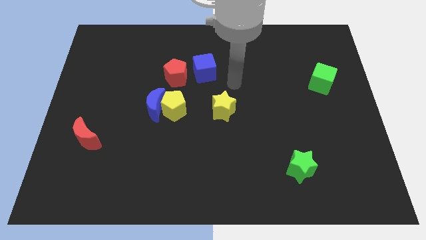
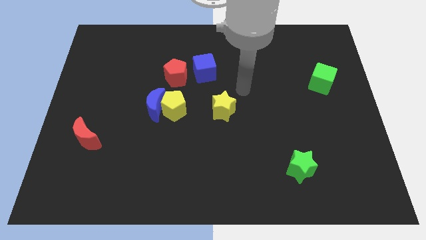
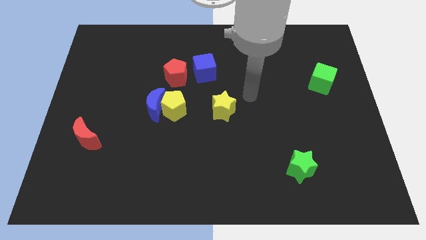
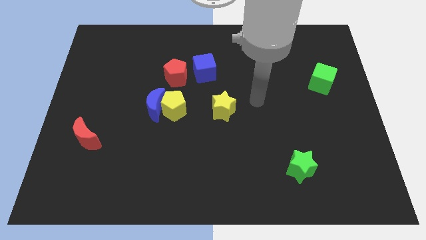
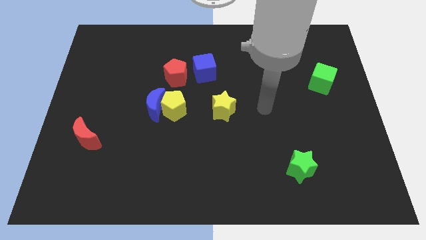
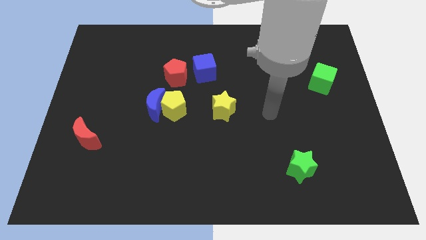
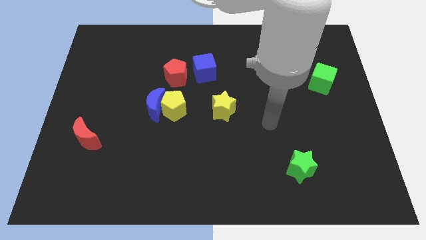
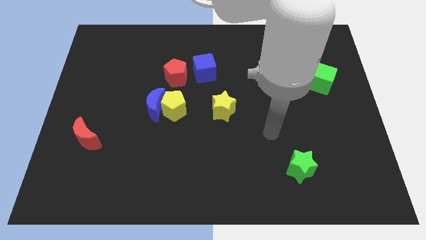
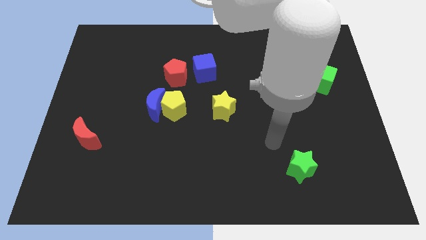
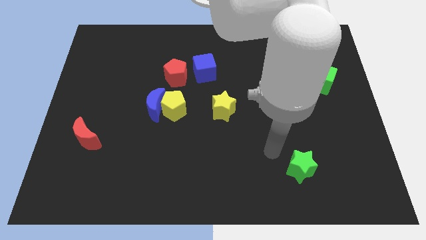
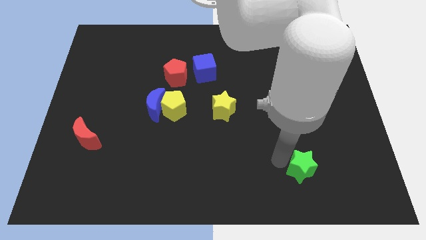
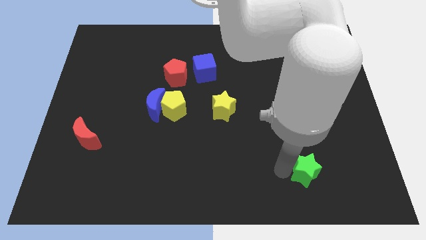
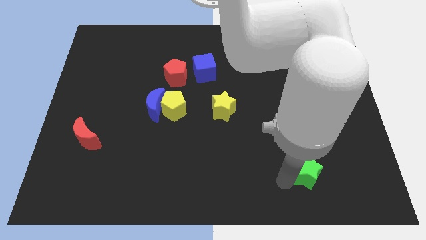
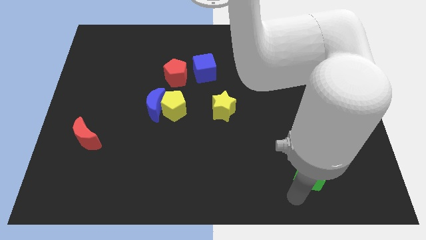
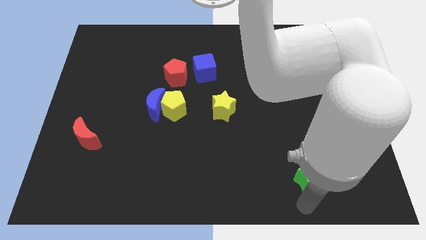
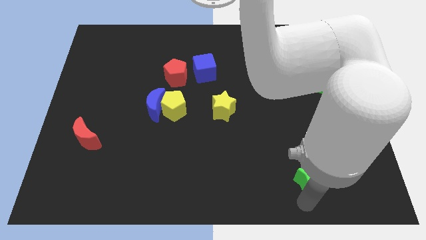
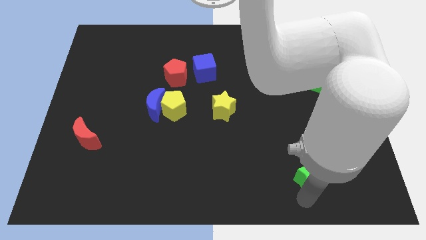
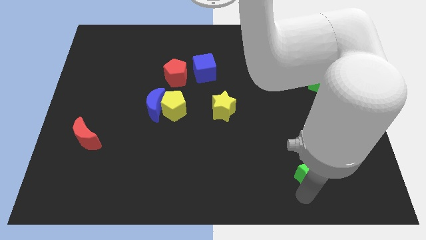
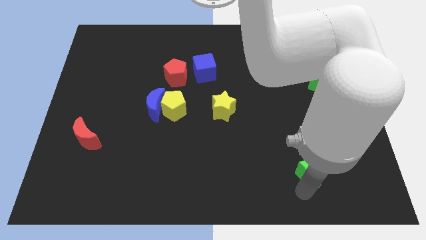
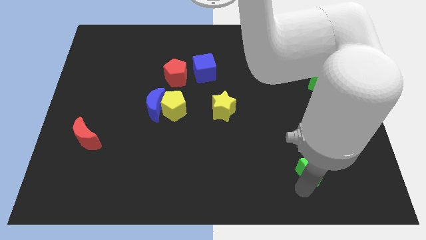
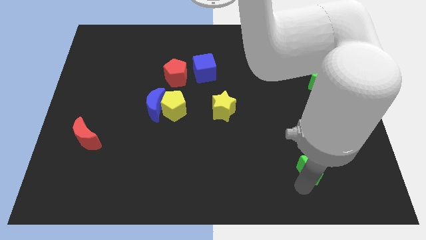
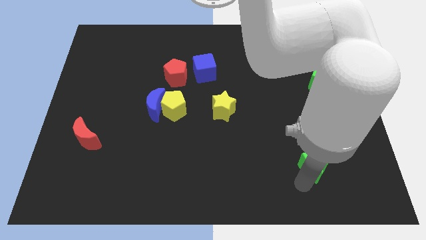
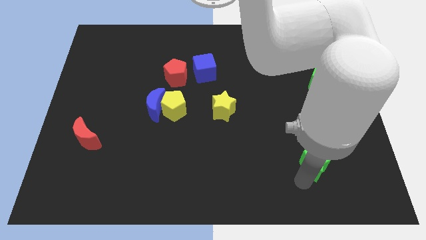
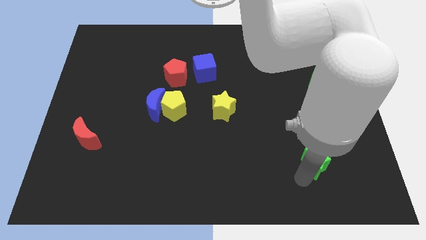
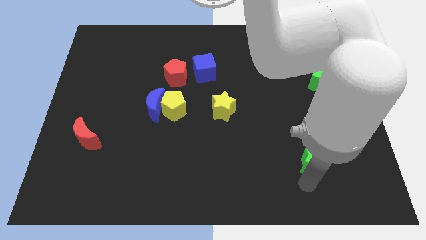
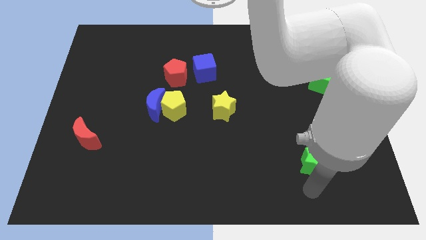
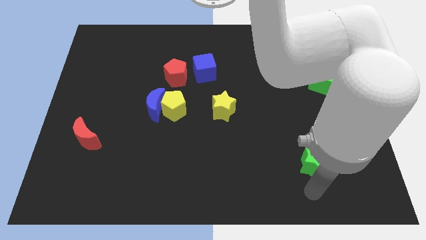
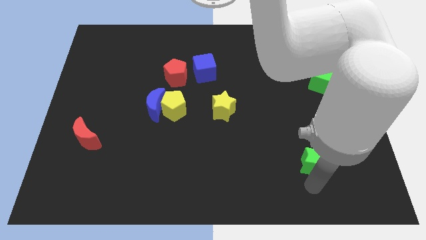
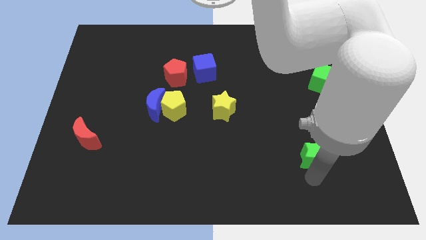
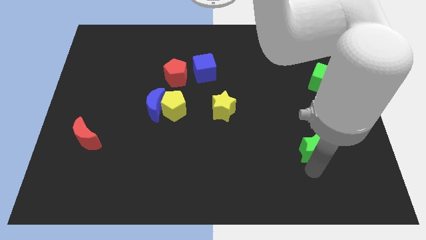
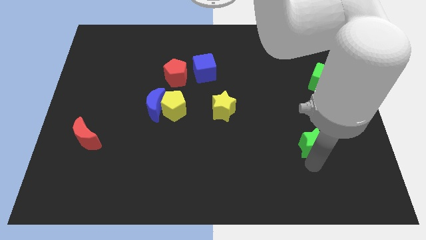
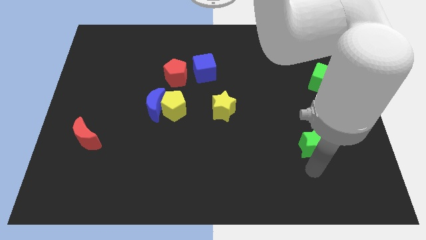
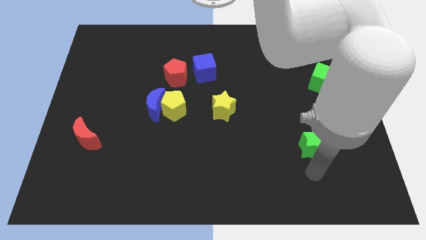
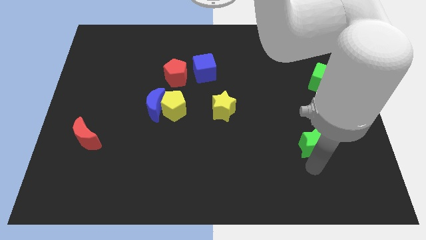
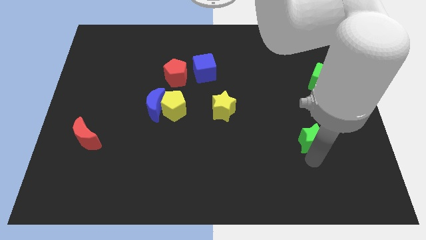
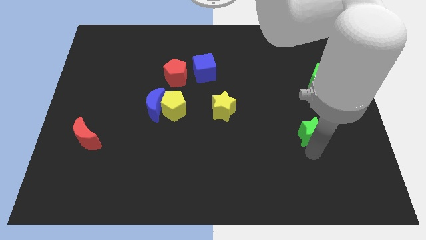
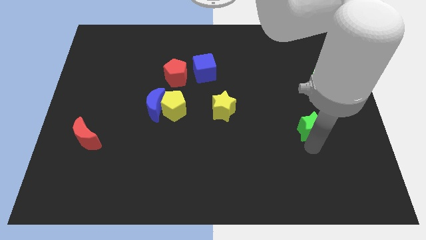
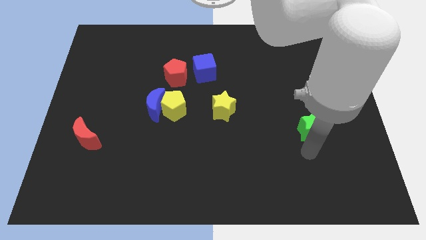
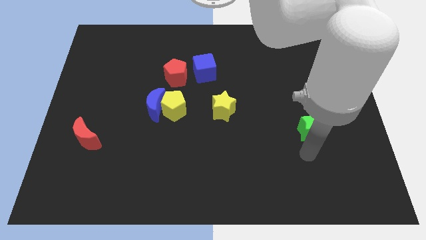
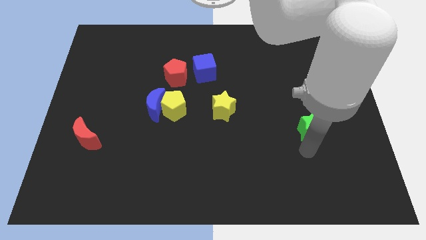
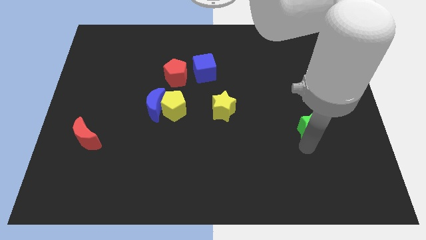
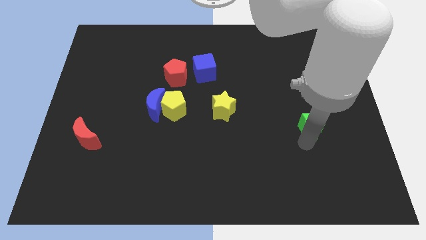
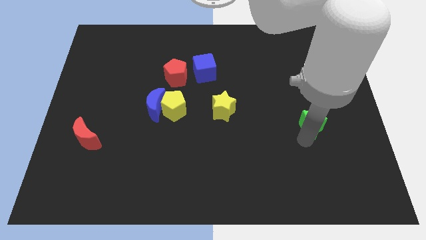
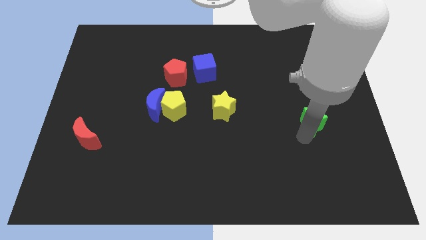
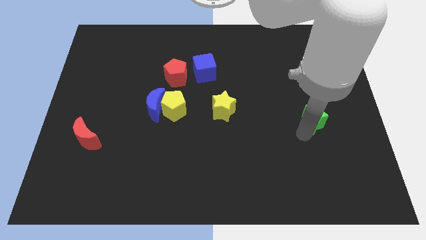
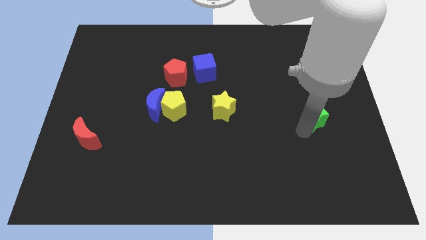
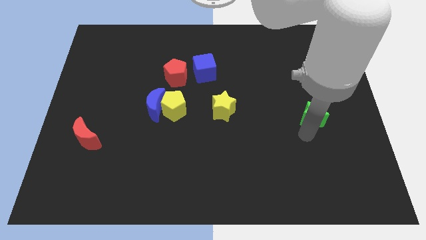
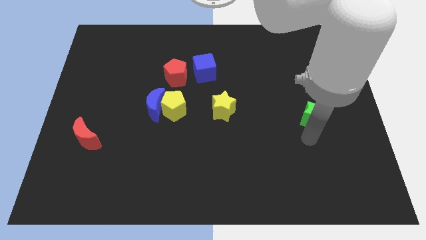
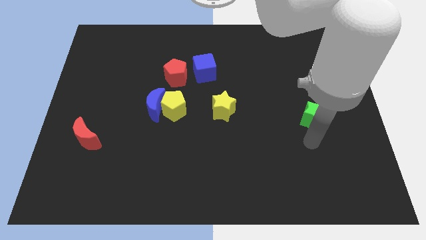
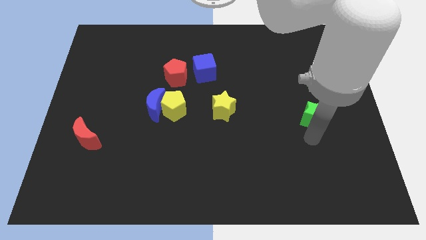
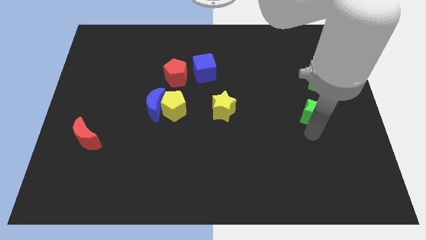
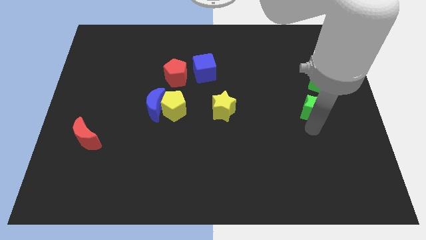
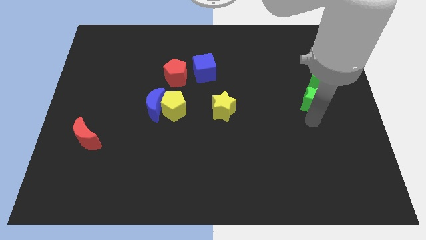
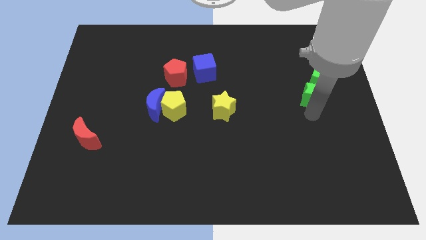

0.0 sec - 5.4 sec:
move the green star next to the green cube

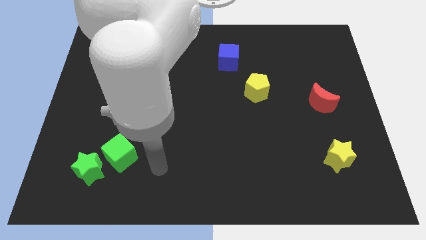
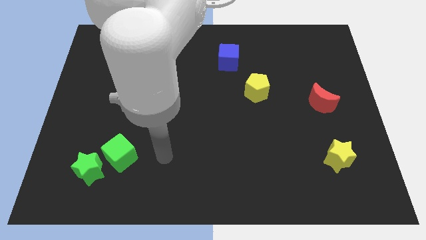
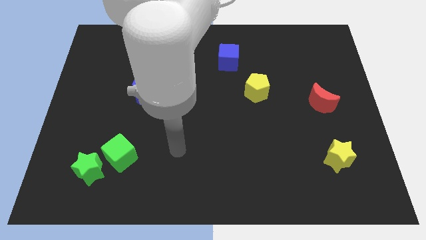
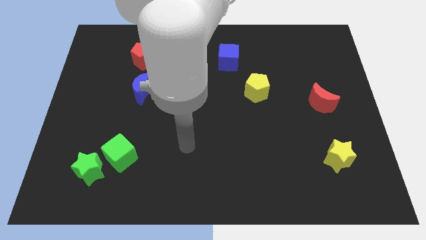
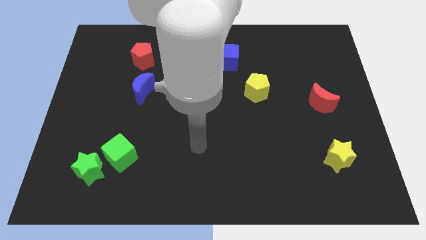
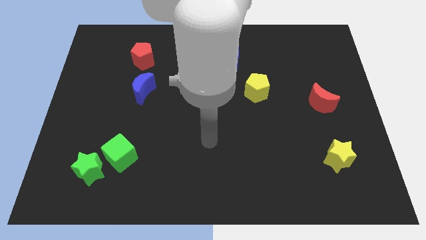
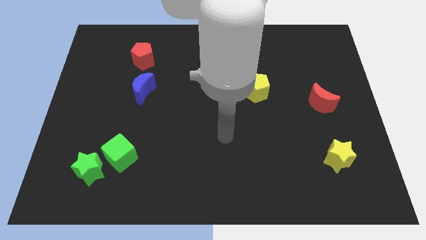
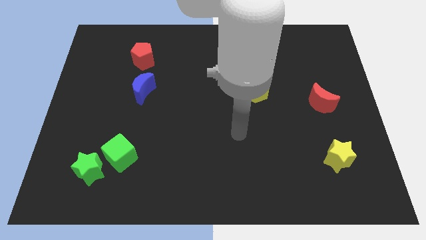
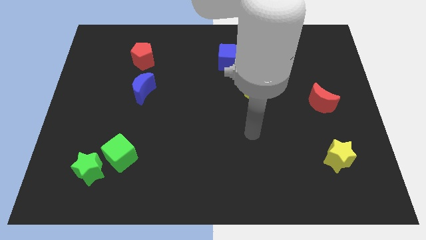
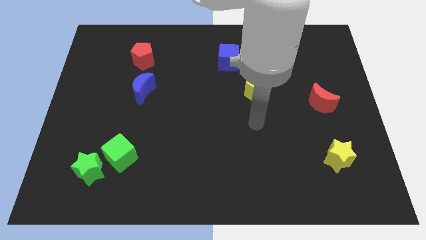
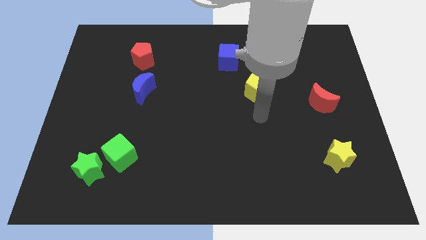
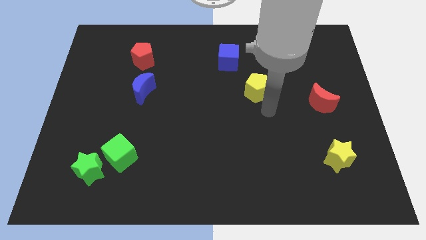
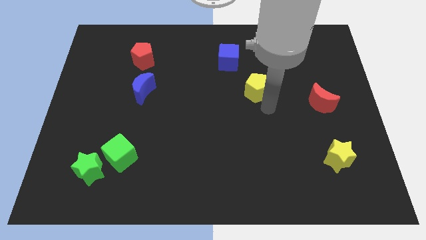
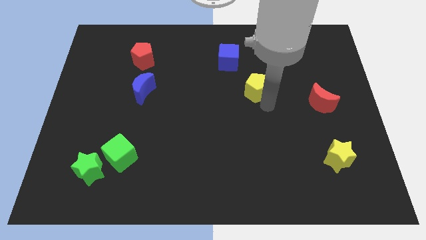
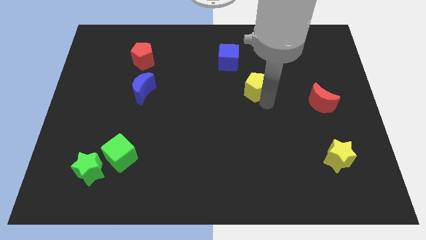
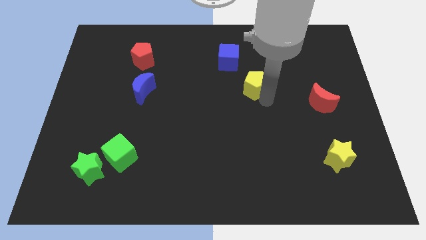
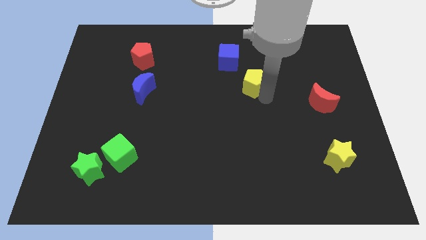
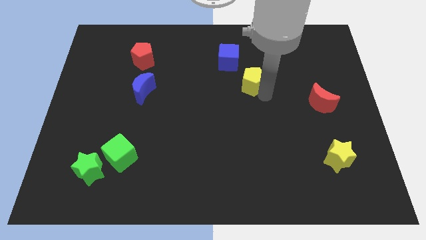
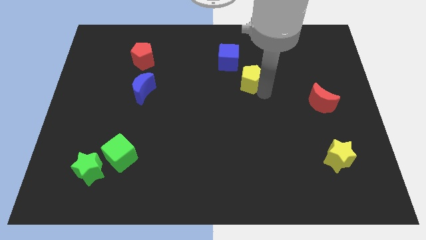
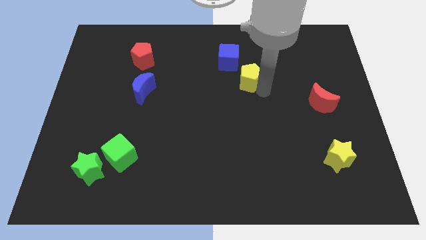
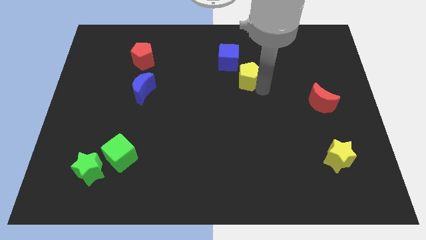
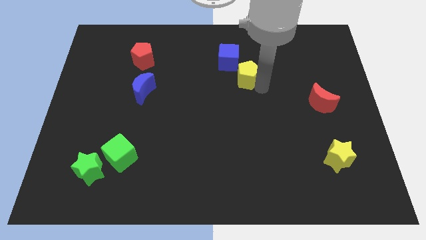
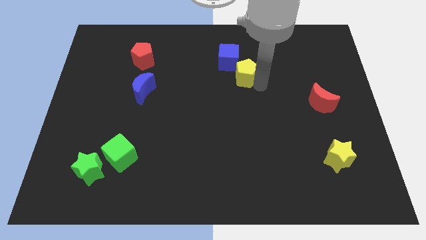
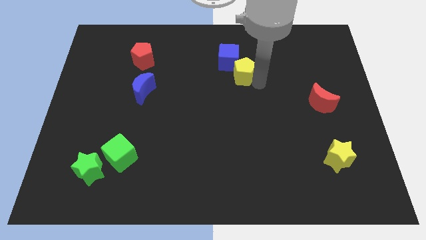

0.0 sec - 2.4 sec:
push the yellow pentagon to the blue cube
